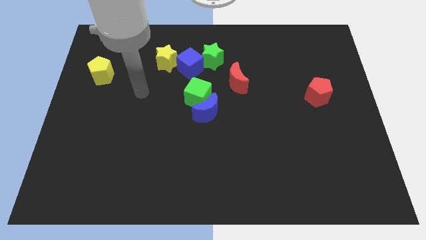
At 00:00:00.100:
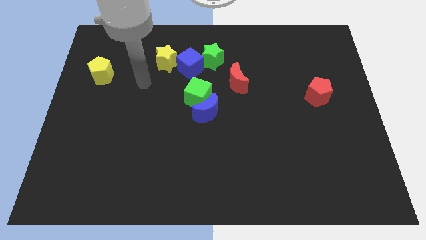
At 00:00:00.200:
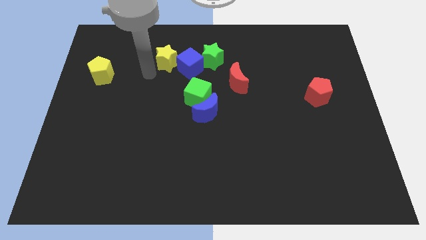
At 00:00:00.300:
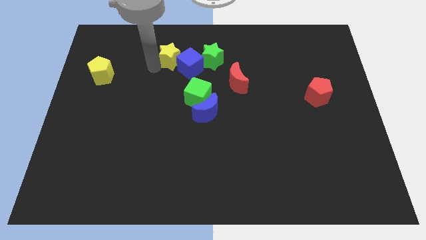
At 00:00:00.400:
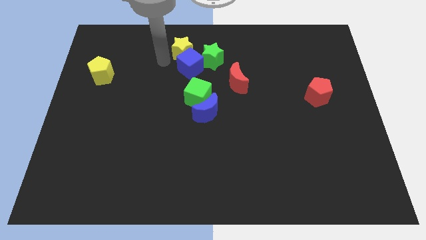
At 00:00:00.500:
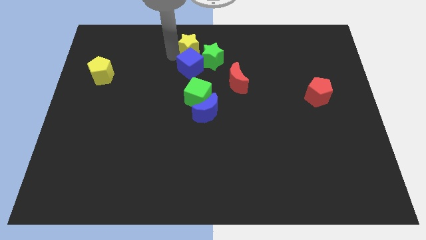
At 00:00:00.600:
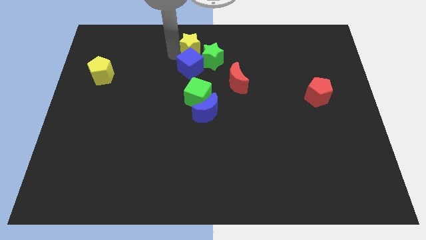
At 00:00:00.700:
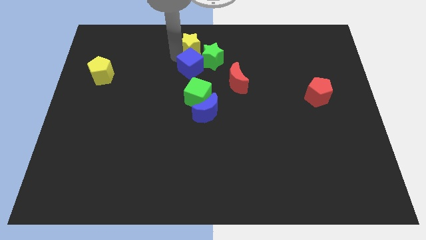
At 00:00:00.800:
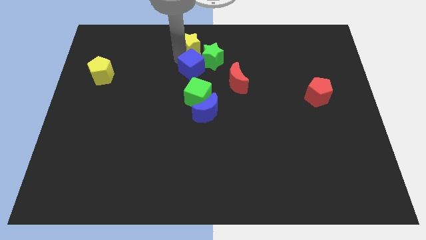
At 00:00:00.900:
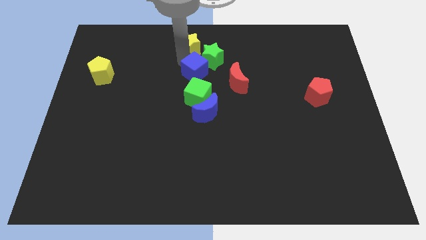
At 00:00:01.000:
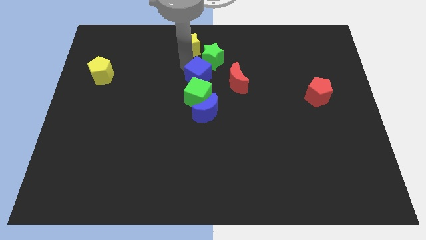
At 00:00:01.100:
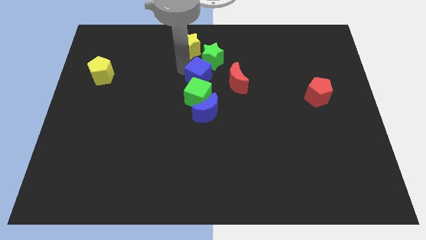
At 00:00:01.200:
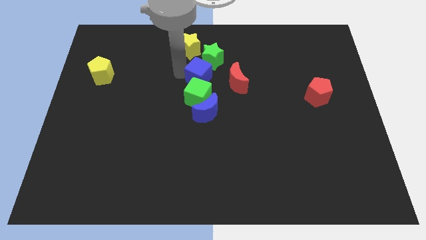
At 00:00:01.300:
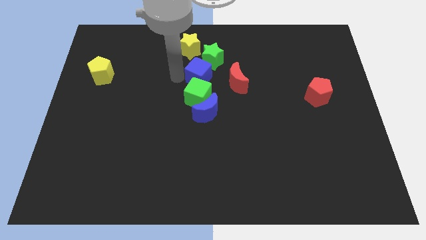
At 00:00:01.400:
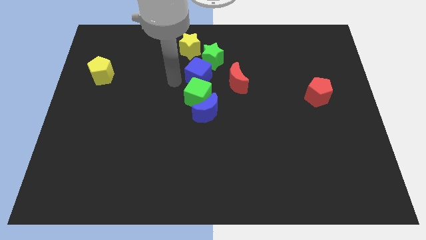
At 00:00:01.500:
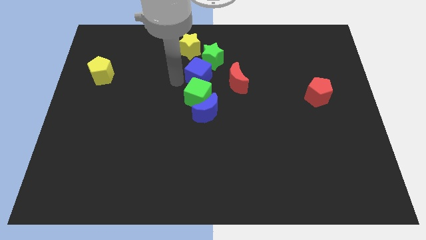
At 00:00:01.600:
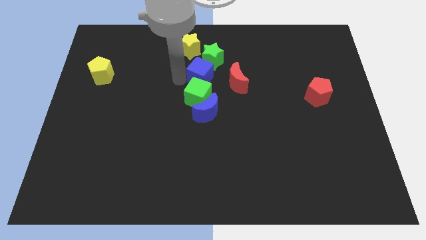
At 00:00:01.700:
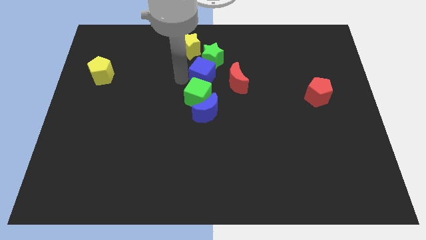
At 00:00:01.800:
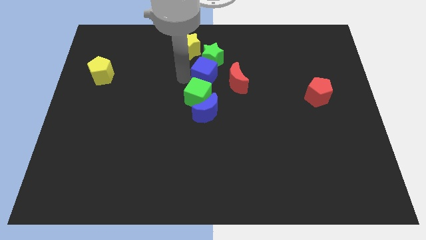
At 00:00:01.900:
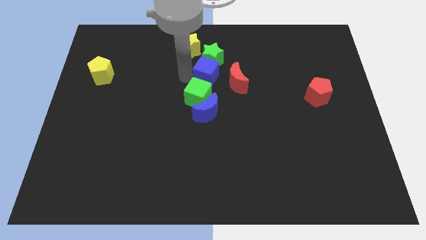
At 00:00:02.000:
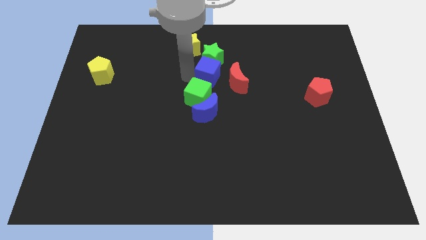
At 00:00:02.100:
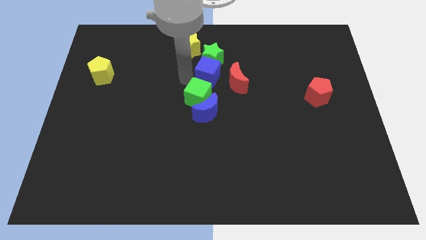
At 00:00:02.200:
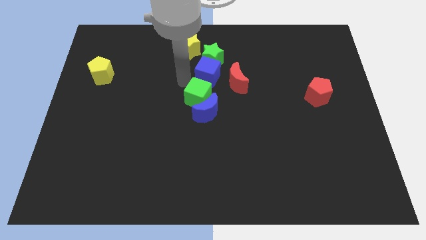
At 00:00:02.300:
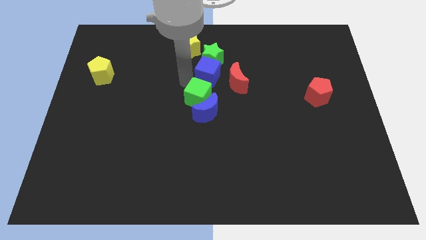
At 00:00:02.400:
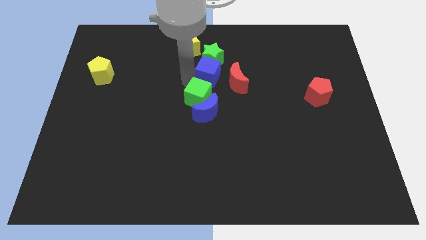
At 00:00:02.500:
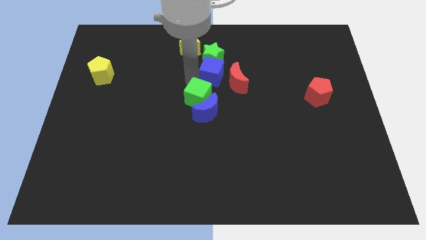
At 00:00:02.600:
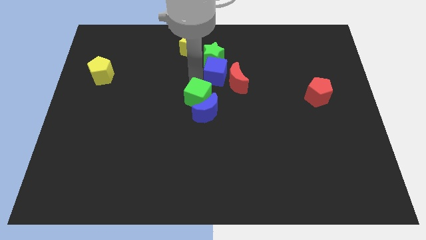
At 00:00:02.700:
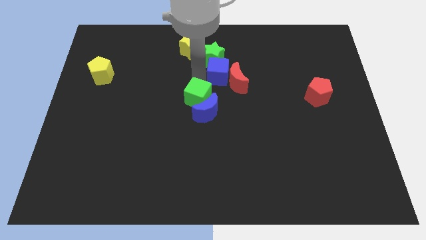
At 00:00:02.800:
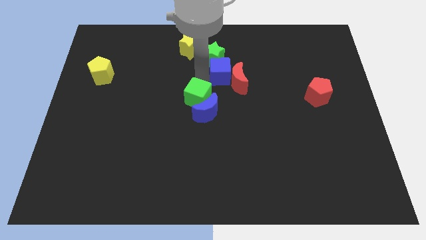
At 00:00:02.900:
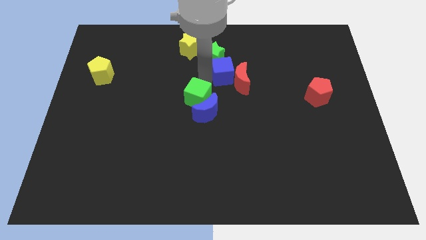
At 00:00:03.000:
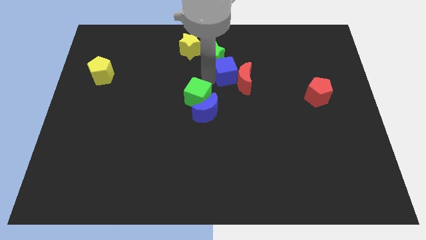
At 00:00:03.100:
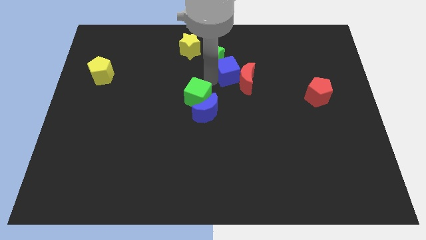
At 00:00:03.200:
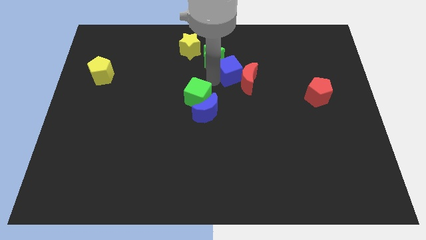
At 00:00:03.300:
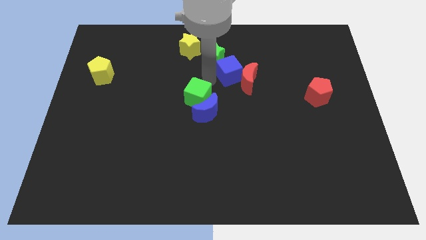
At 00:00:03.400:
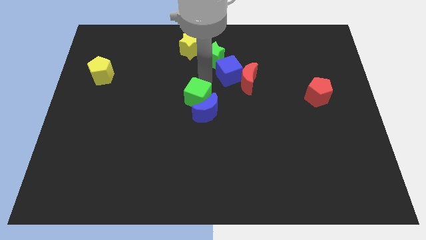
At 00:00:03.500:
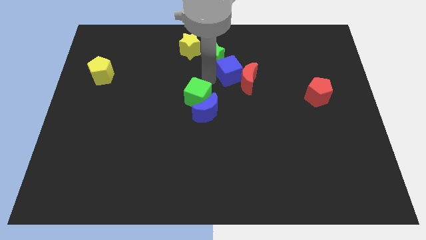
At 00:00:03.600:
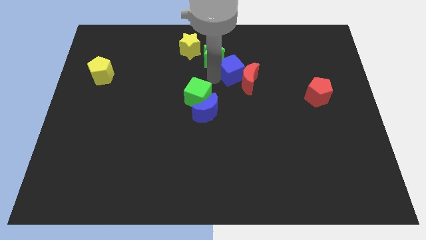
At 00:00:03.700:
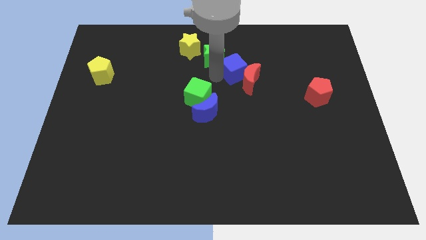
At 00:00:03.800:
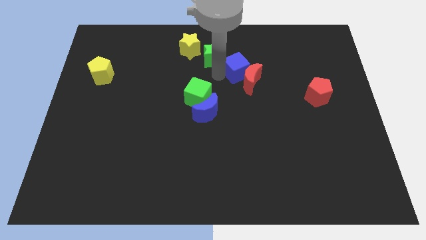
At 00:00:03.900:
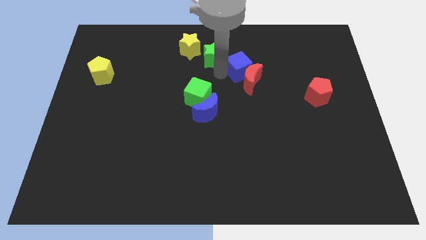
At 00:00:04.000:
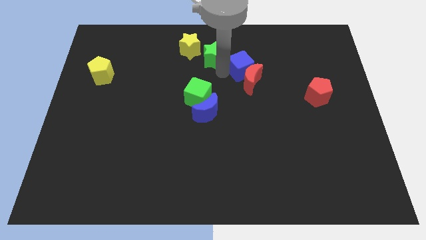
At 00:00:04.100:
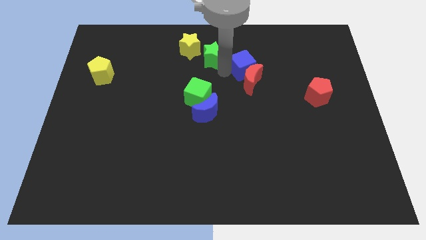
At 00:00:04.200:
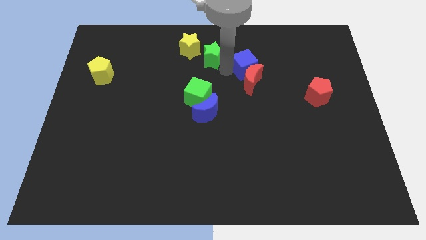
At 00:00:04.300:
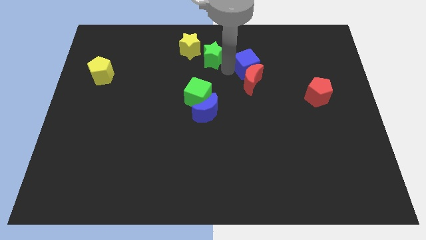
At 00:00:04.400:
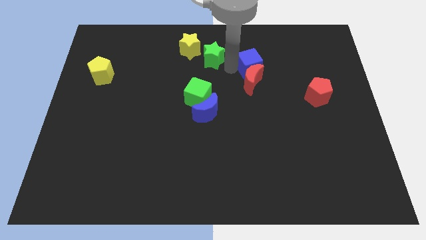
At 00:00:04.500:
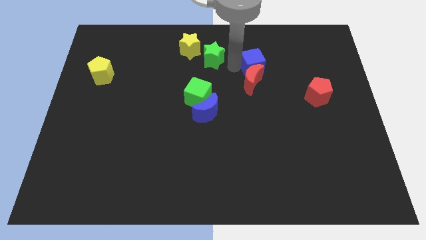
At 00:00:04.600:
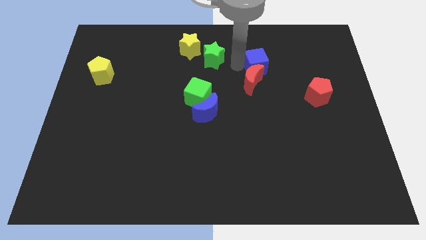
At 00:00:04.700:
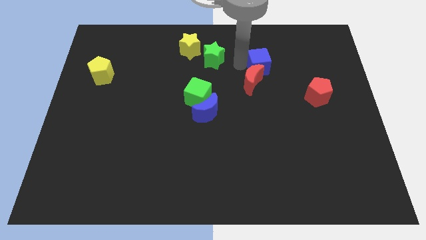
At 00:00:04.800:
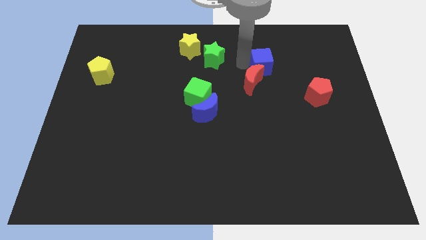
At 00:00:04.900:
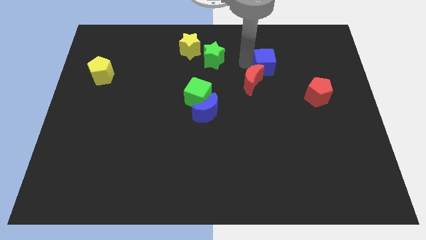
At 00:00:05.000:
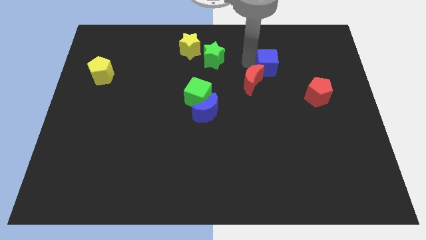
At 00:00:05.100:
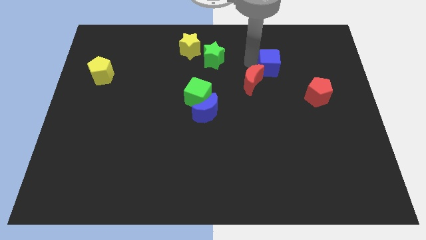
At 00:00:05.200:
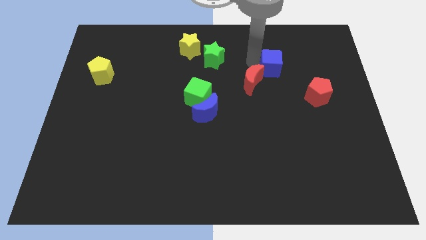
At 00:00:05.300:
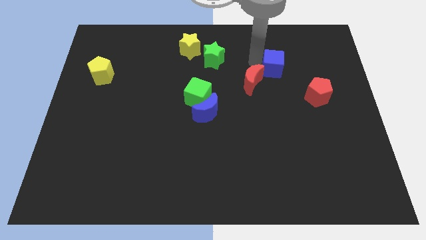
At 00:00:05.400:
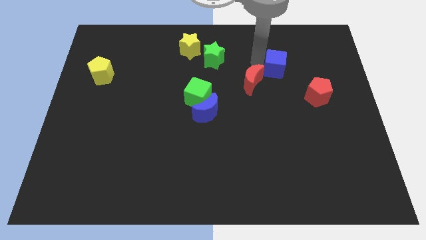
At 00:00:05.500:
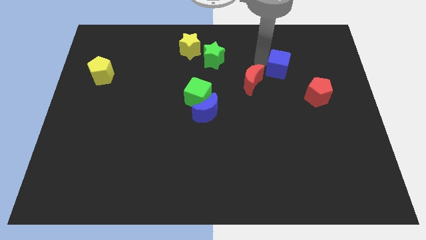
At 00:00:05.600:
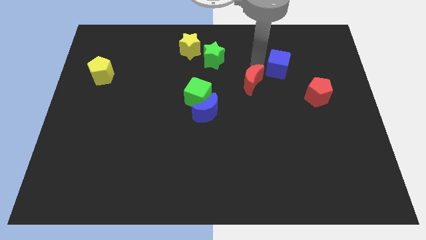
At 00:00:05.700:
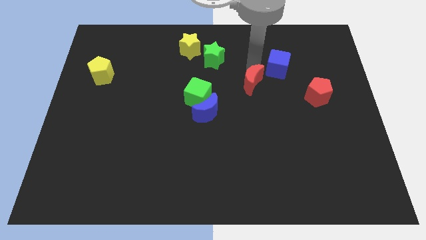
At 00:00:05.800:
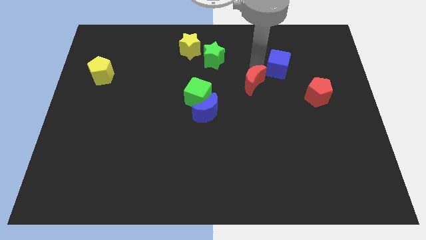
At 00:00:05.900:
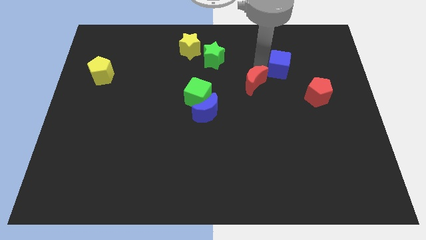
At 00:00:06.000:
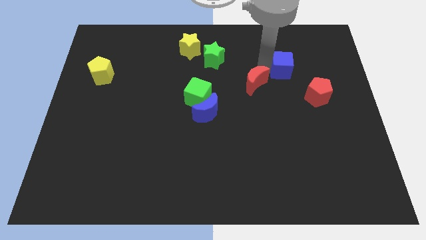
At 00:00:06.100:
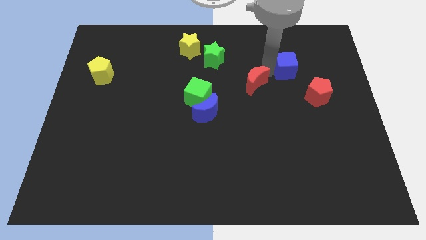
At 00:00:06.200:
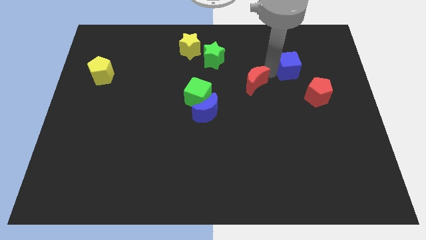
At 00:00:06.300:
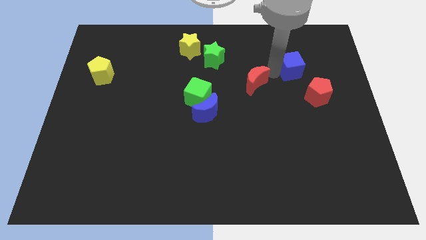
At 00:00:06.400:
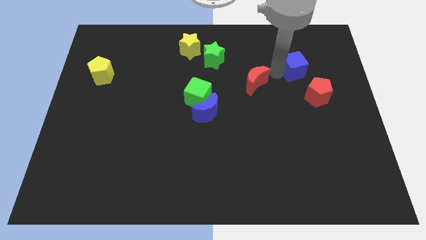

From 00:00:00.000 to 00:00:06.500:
slide the blue cube to the top side of the red pentagon

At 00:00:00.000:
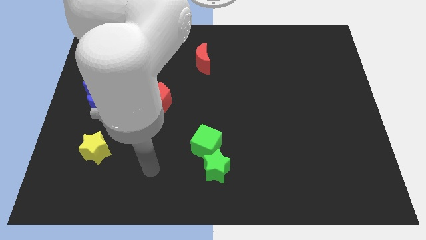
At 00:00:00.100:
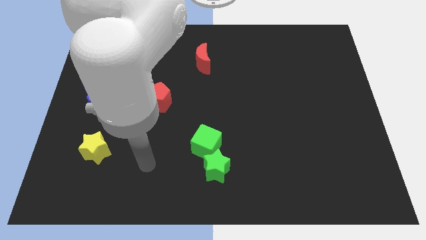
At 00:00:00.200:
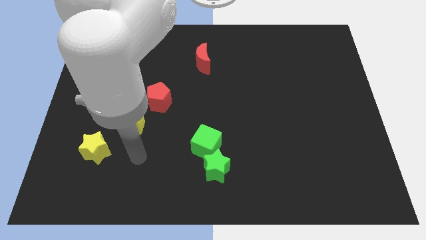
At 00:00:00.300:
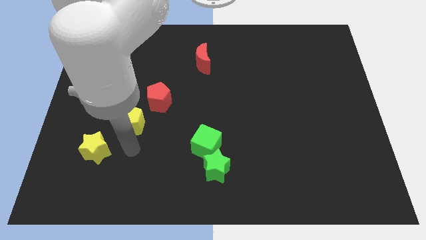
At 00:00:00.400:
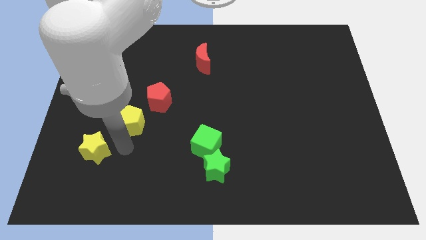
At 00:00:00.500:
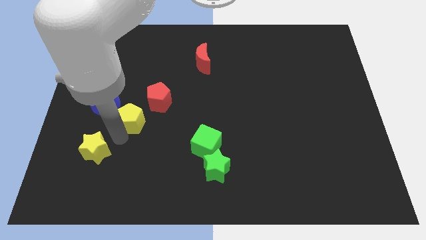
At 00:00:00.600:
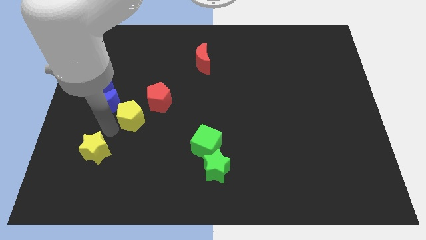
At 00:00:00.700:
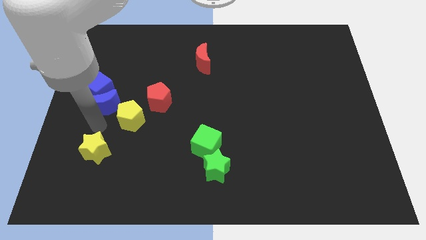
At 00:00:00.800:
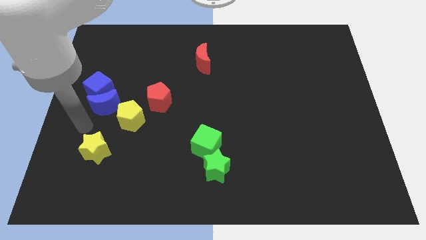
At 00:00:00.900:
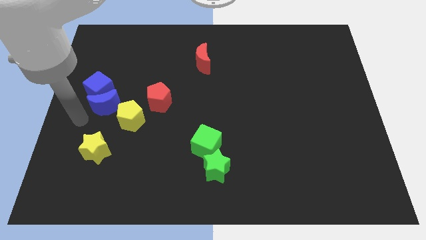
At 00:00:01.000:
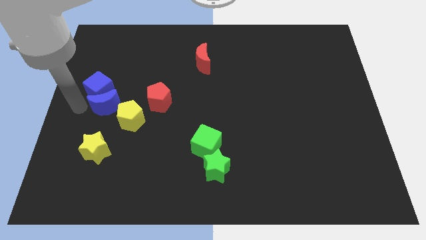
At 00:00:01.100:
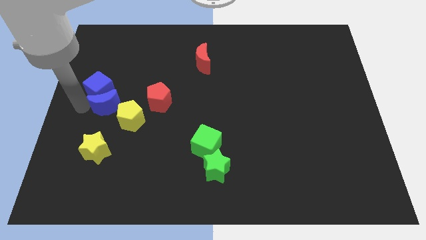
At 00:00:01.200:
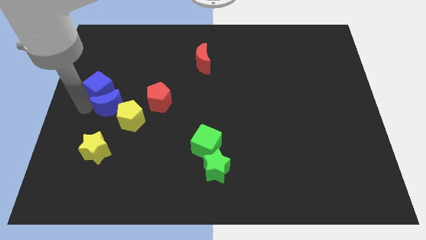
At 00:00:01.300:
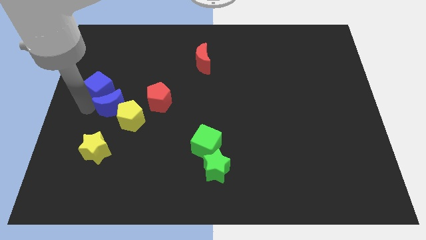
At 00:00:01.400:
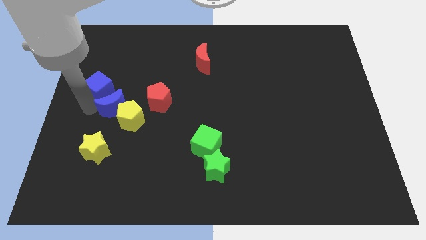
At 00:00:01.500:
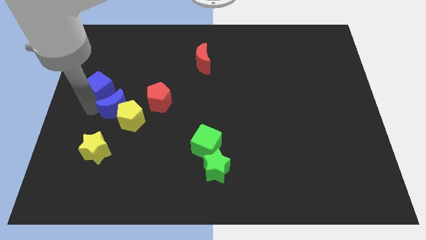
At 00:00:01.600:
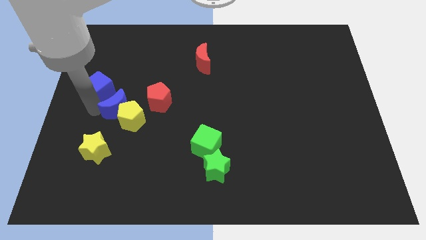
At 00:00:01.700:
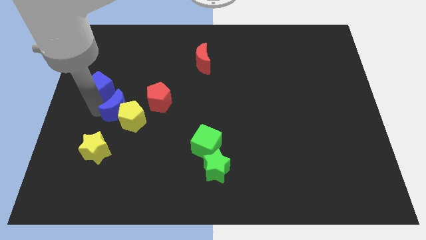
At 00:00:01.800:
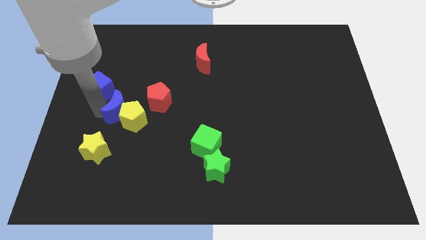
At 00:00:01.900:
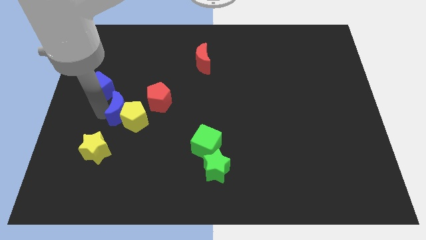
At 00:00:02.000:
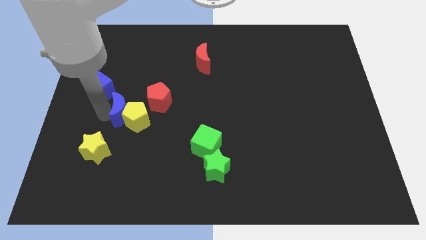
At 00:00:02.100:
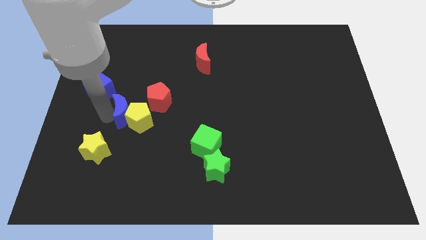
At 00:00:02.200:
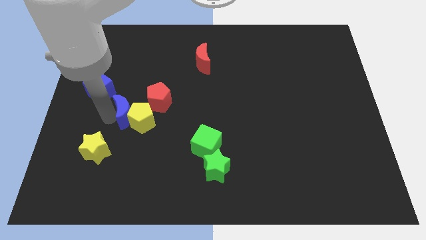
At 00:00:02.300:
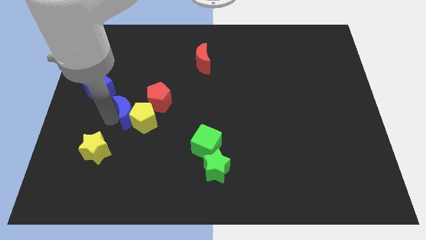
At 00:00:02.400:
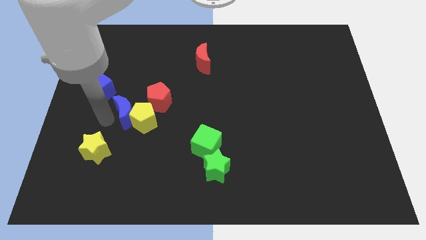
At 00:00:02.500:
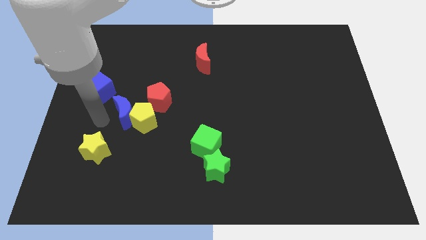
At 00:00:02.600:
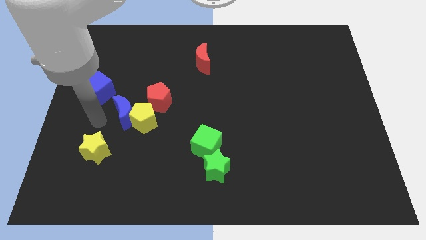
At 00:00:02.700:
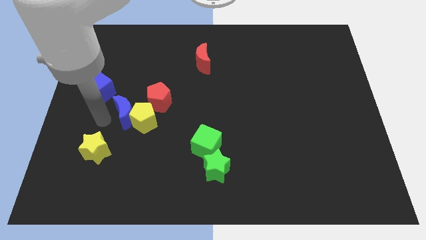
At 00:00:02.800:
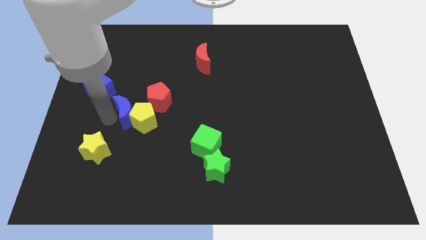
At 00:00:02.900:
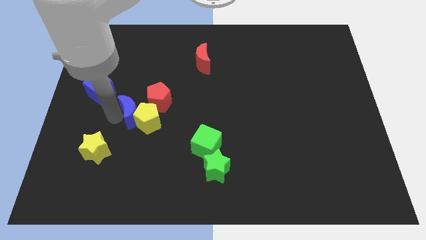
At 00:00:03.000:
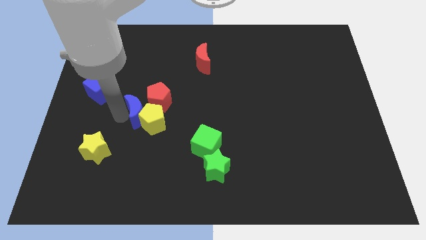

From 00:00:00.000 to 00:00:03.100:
push the blue moon below the red pentagon
